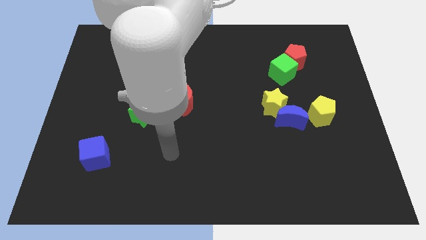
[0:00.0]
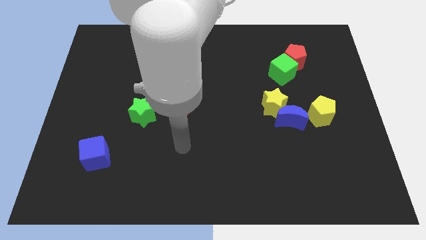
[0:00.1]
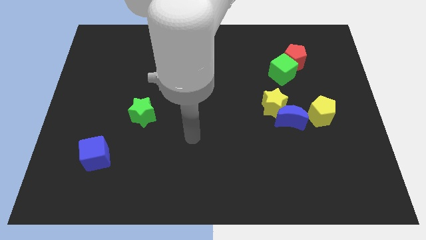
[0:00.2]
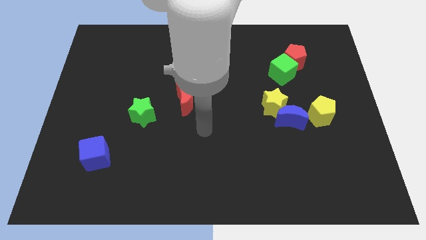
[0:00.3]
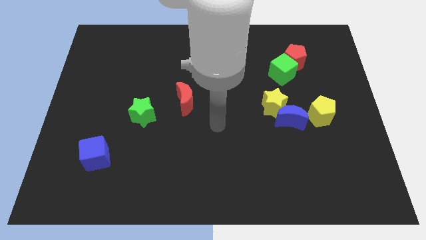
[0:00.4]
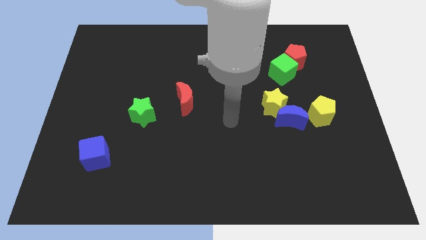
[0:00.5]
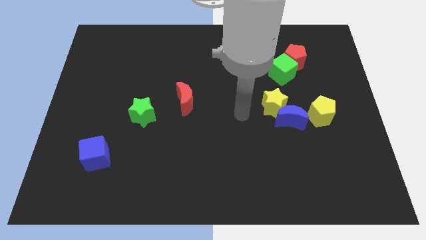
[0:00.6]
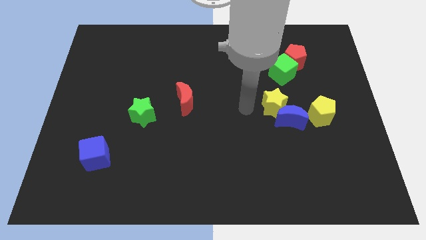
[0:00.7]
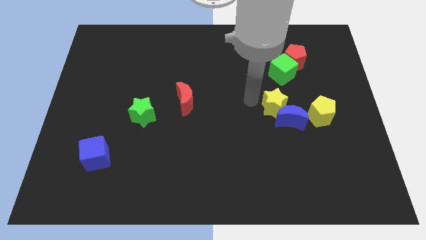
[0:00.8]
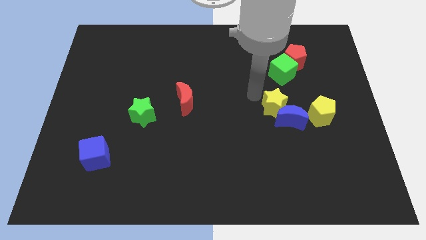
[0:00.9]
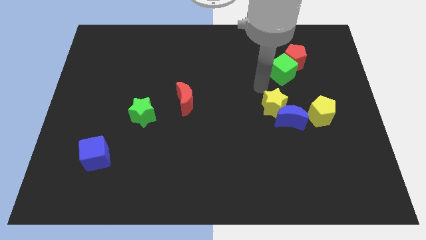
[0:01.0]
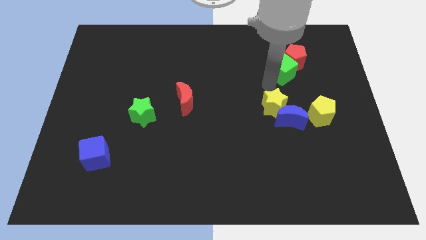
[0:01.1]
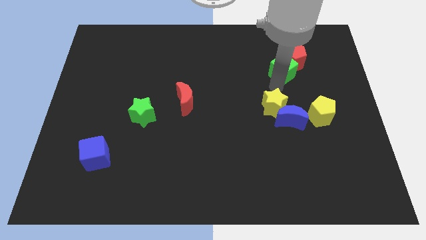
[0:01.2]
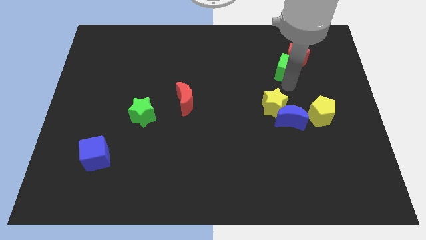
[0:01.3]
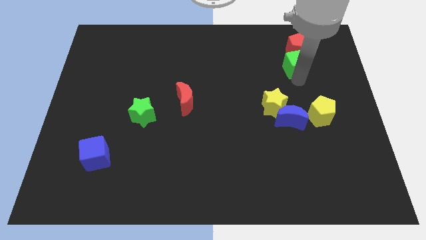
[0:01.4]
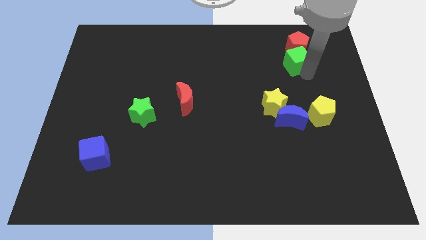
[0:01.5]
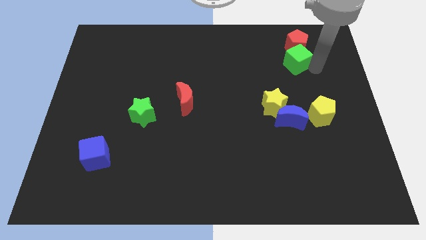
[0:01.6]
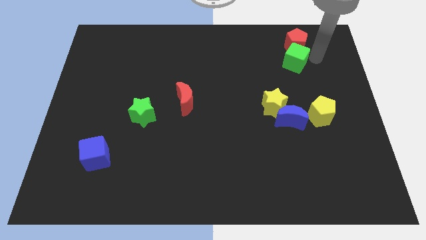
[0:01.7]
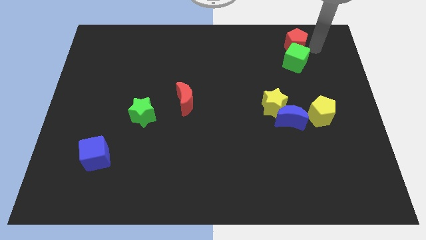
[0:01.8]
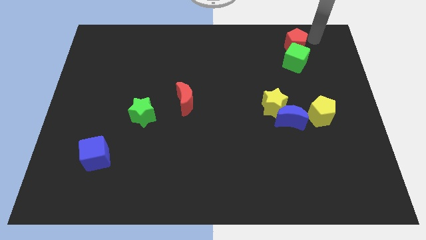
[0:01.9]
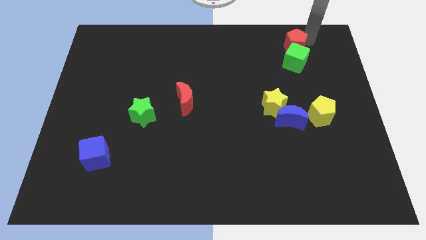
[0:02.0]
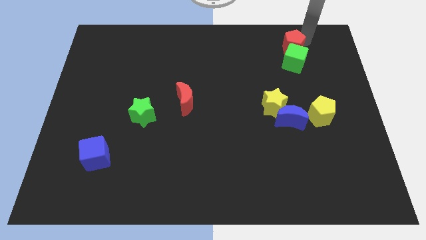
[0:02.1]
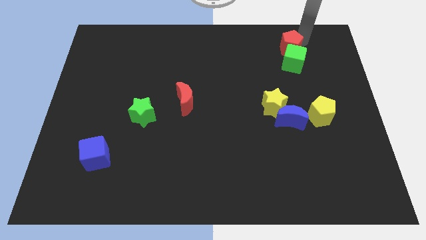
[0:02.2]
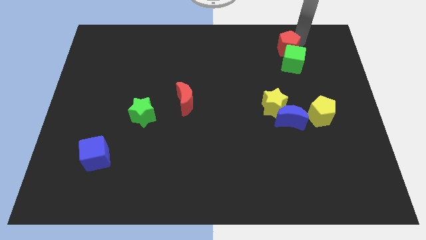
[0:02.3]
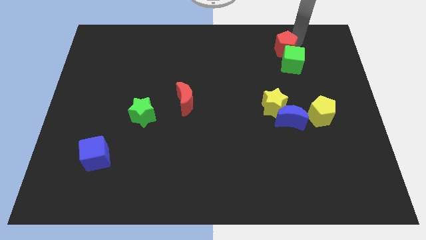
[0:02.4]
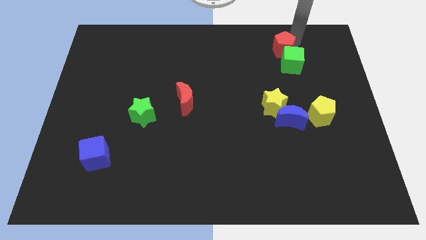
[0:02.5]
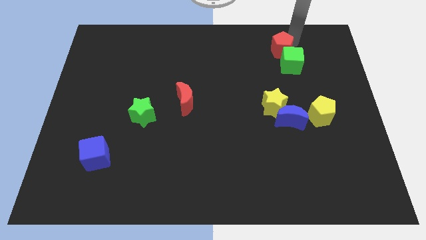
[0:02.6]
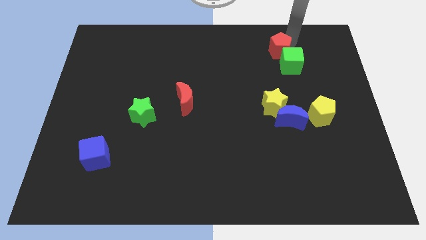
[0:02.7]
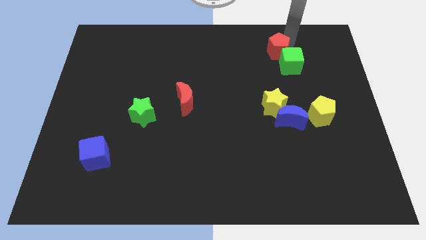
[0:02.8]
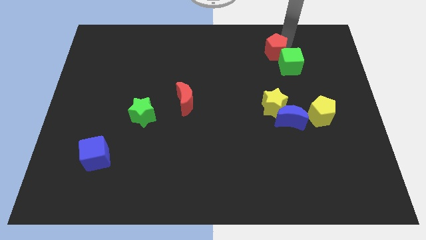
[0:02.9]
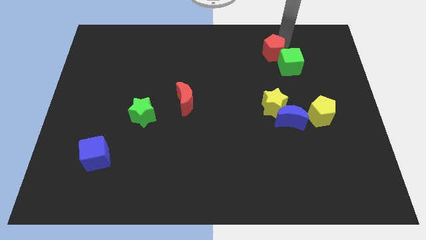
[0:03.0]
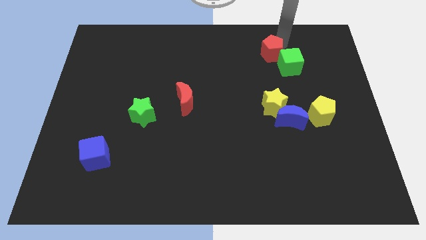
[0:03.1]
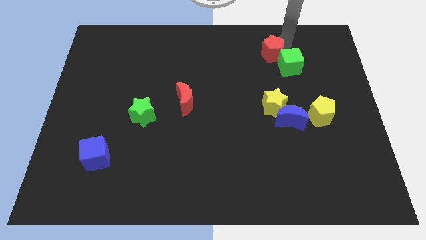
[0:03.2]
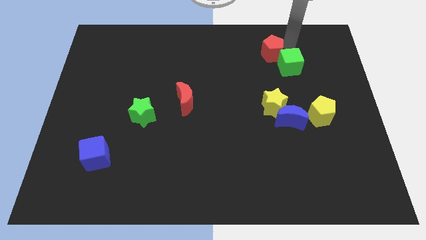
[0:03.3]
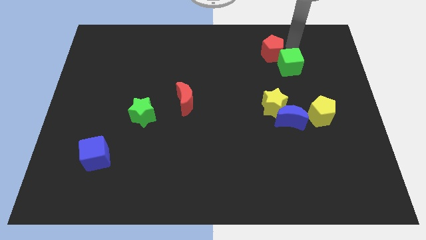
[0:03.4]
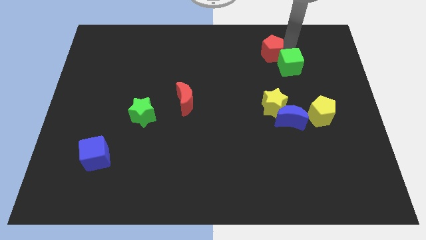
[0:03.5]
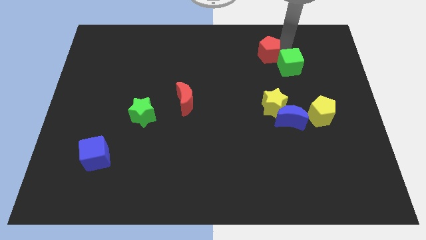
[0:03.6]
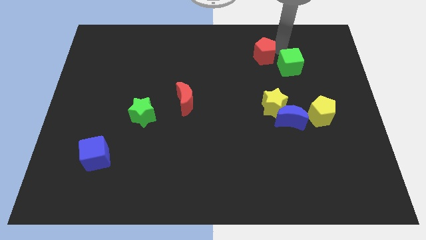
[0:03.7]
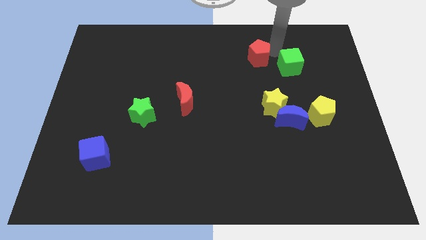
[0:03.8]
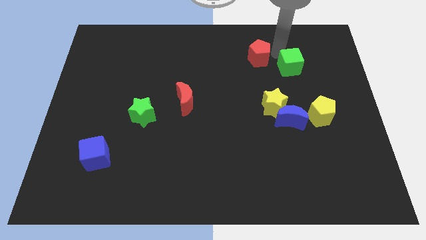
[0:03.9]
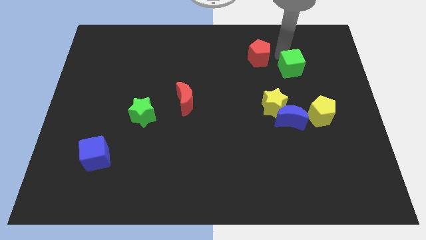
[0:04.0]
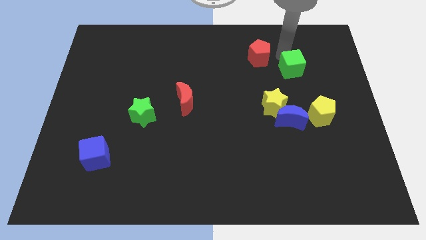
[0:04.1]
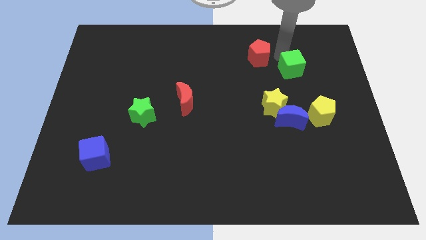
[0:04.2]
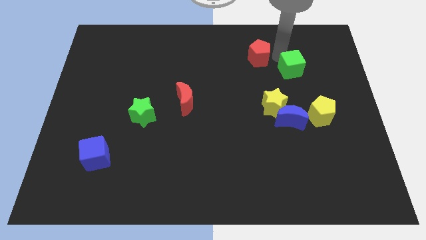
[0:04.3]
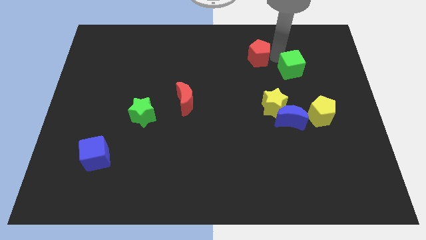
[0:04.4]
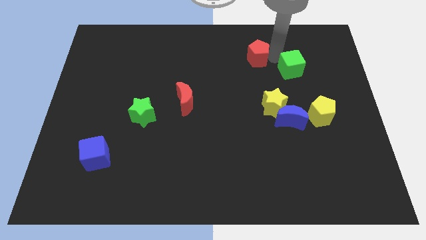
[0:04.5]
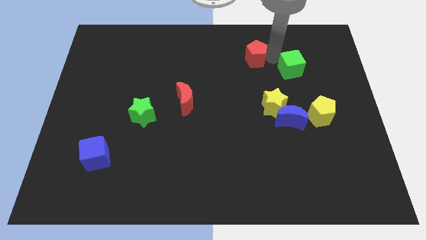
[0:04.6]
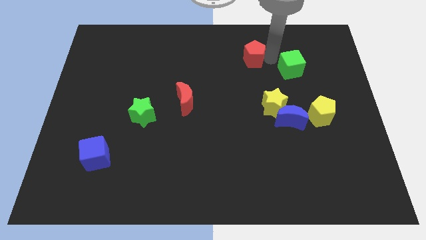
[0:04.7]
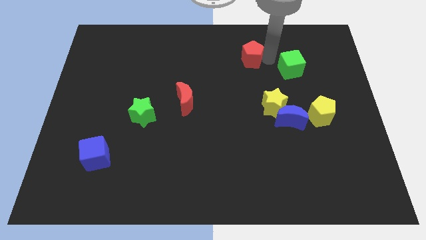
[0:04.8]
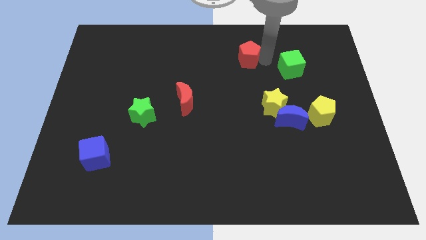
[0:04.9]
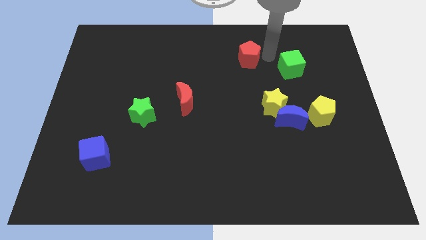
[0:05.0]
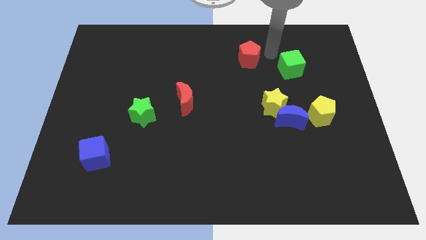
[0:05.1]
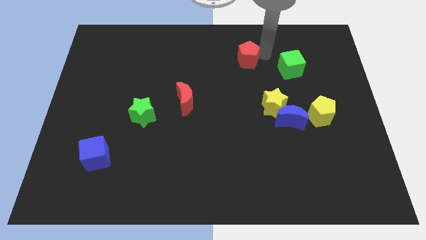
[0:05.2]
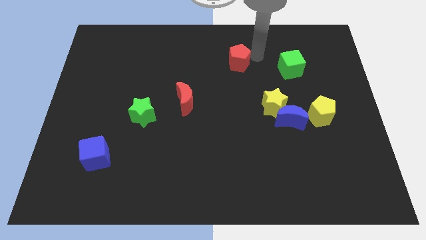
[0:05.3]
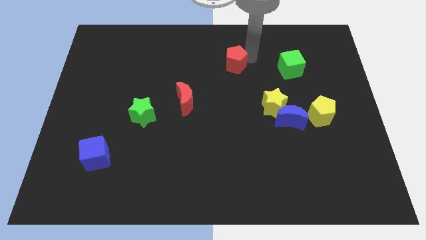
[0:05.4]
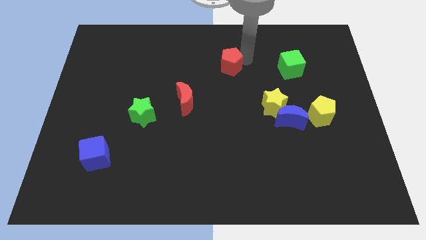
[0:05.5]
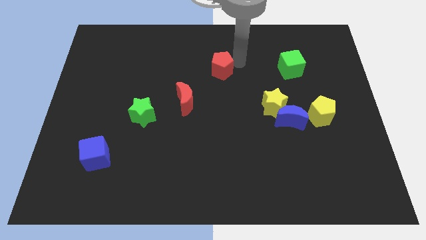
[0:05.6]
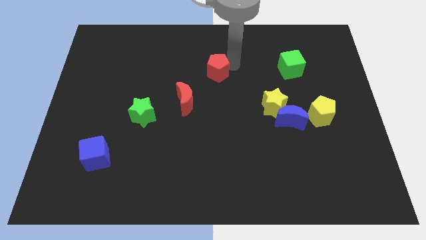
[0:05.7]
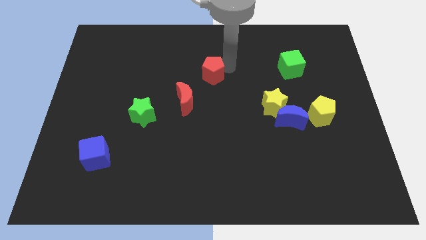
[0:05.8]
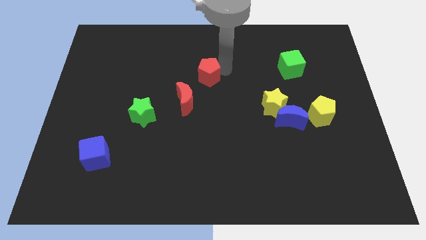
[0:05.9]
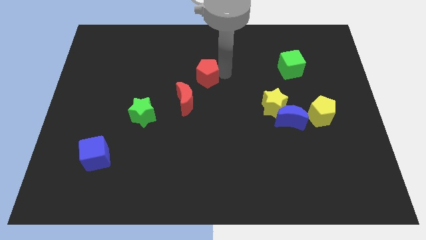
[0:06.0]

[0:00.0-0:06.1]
put the red pentagon above the red moon

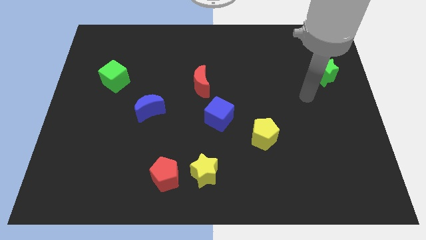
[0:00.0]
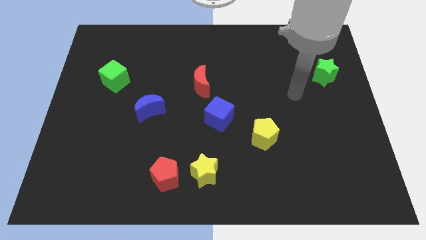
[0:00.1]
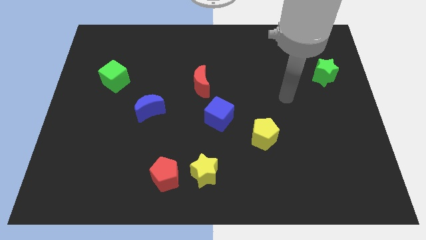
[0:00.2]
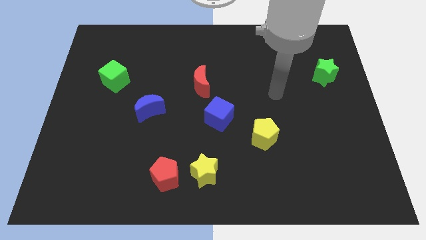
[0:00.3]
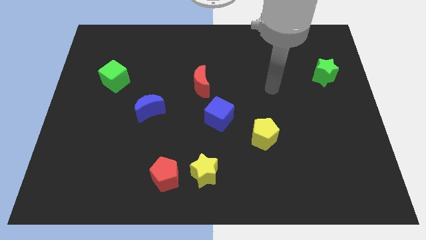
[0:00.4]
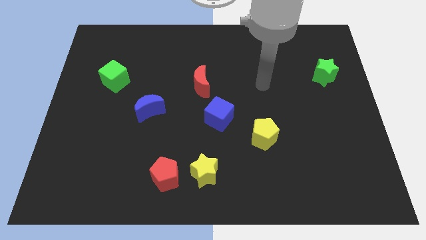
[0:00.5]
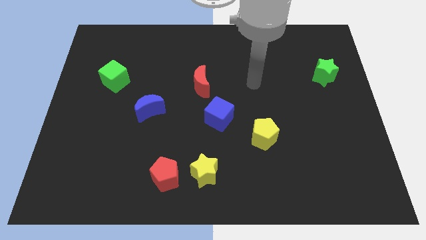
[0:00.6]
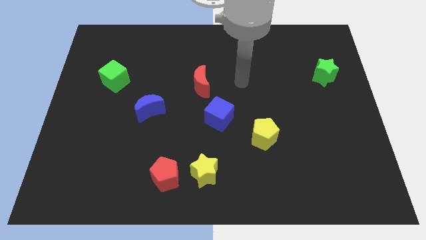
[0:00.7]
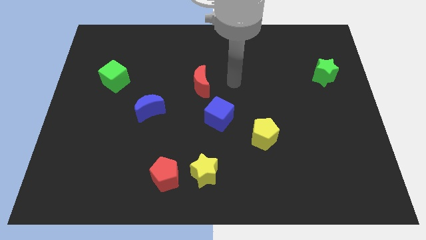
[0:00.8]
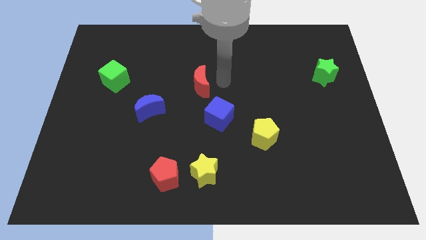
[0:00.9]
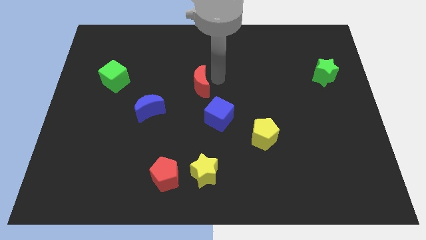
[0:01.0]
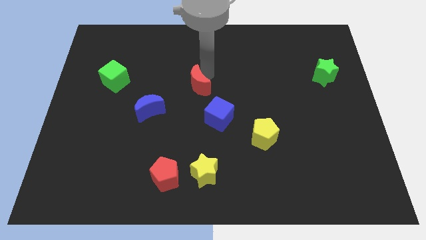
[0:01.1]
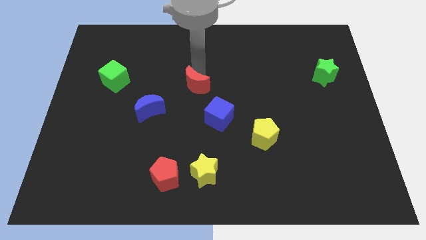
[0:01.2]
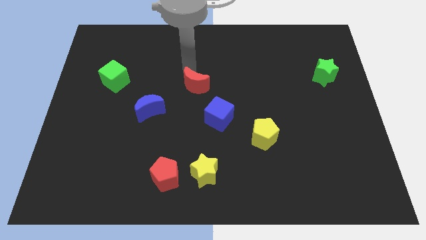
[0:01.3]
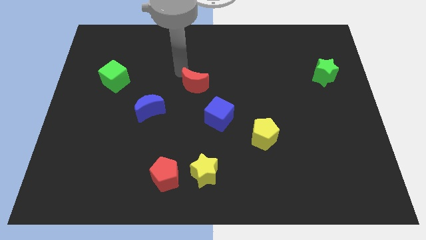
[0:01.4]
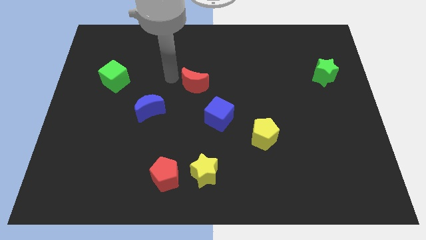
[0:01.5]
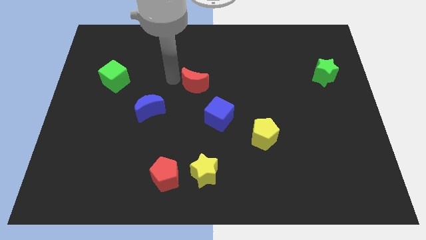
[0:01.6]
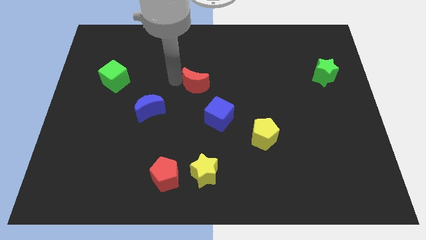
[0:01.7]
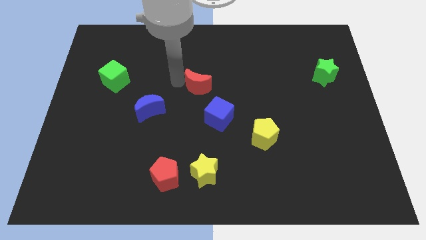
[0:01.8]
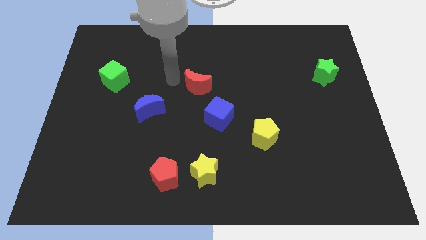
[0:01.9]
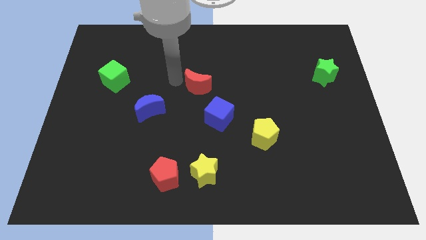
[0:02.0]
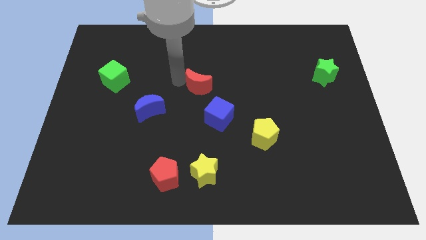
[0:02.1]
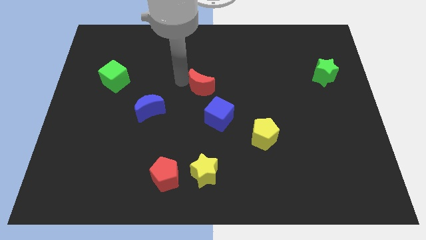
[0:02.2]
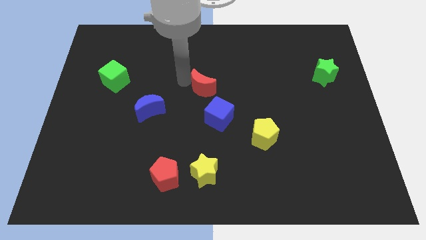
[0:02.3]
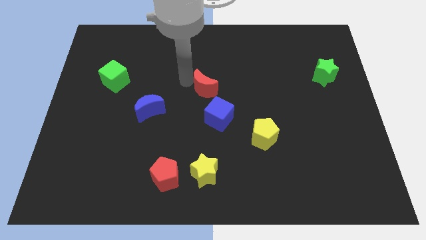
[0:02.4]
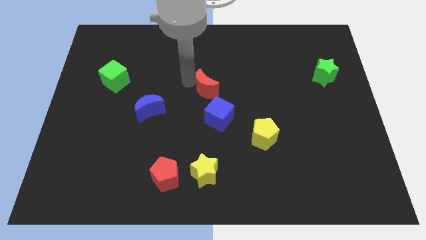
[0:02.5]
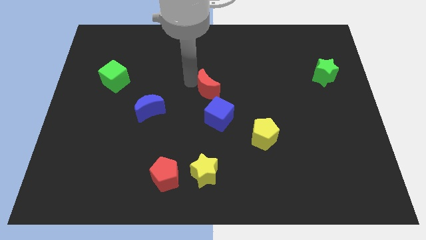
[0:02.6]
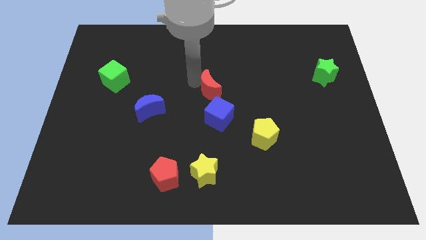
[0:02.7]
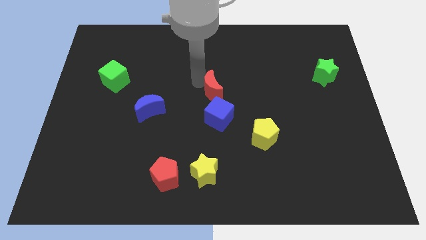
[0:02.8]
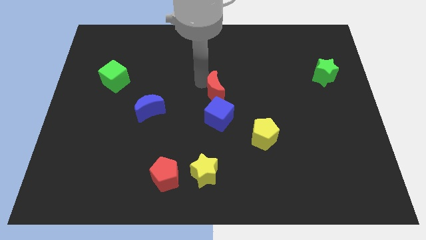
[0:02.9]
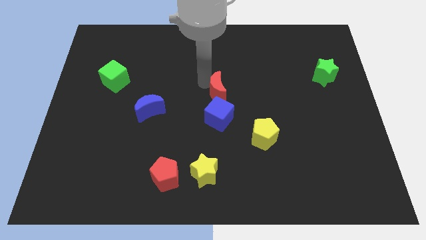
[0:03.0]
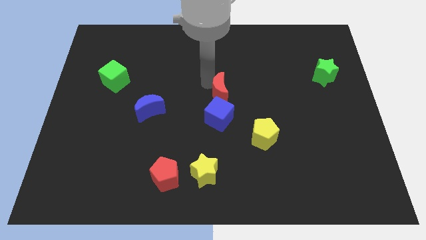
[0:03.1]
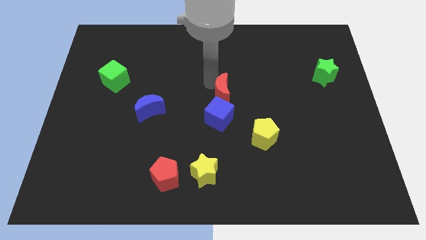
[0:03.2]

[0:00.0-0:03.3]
slide the red moon diagonally up and to the right of the blue cube
